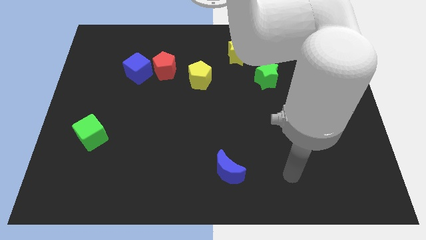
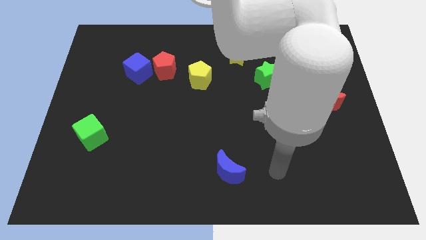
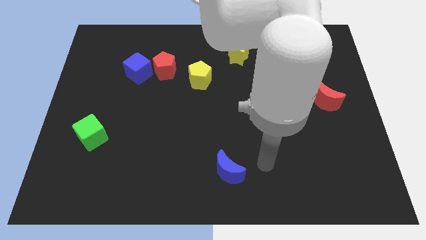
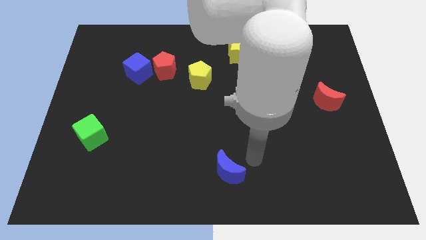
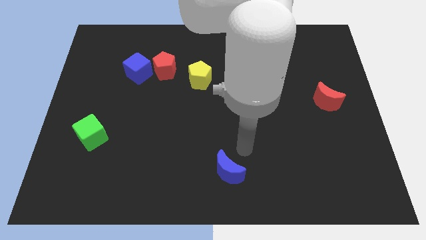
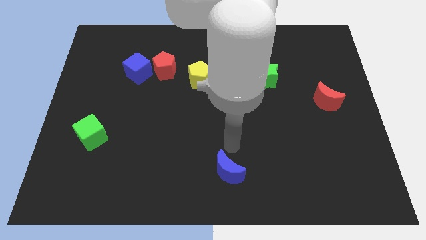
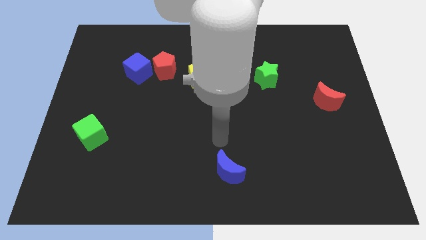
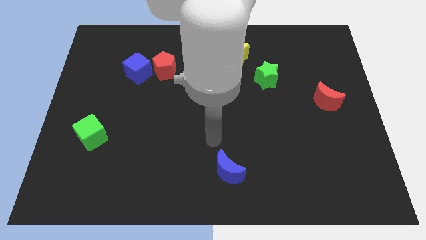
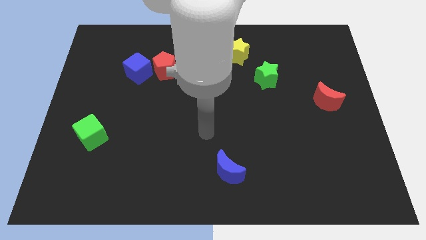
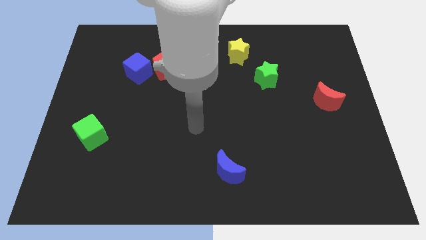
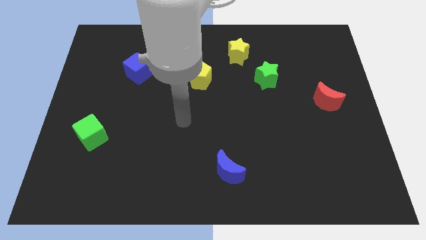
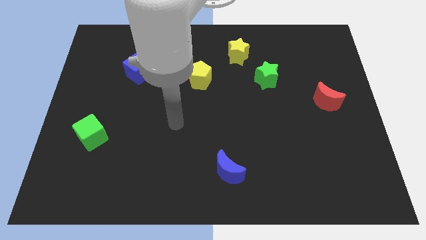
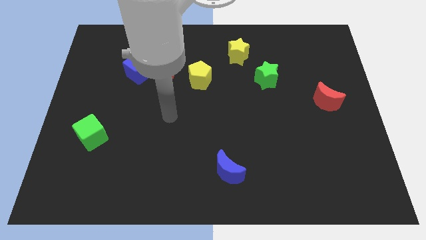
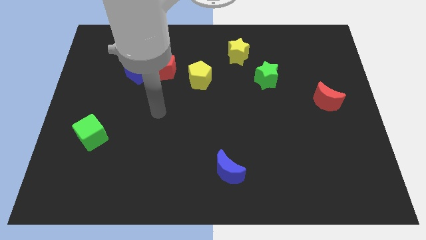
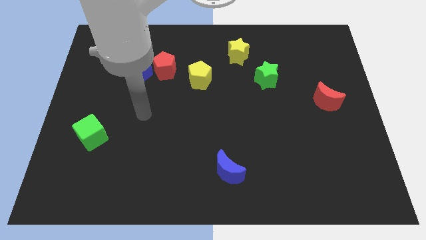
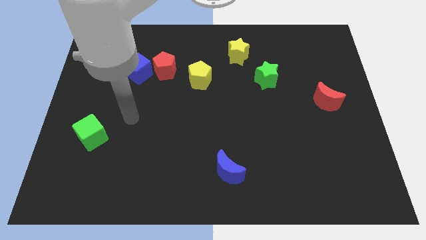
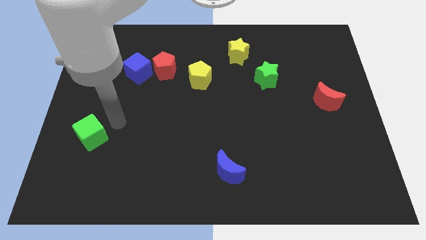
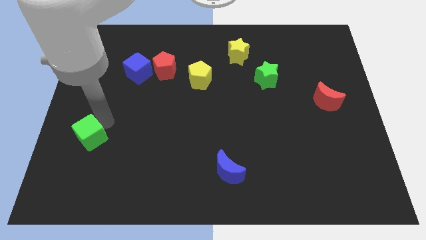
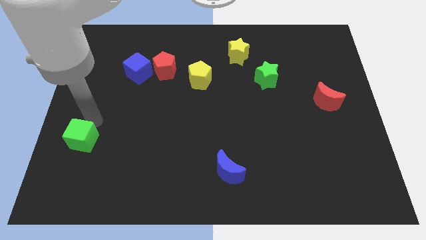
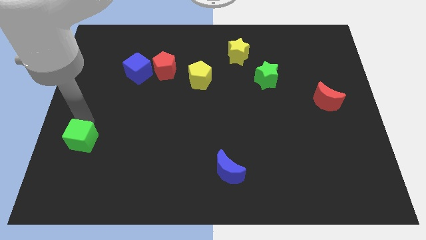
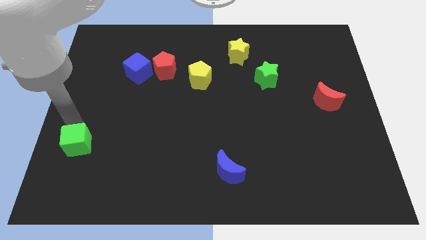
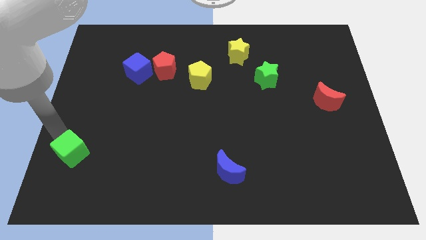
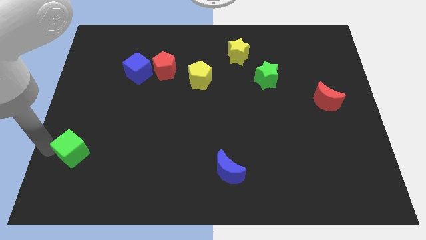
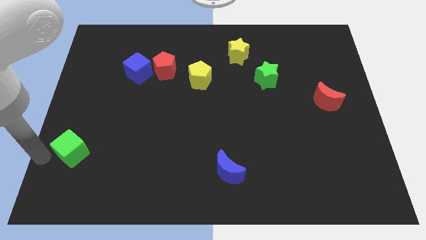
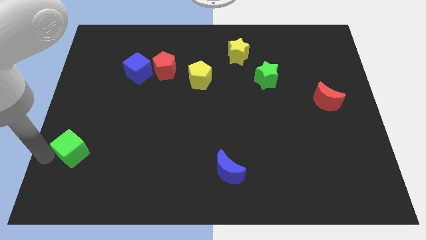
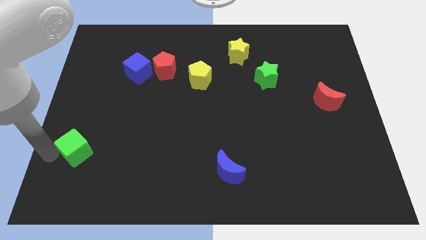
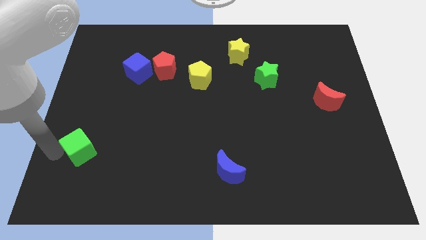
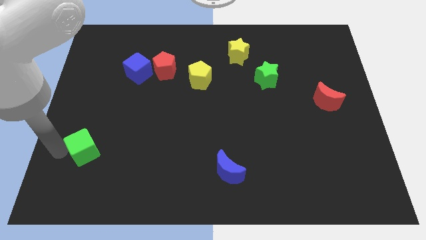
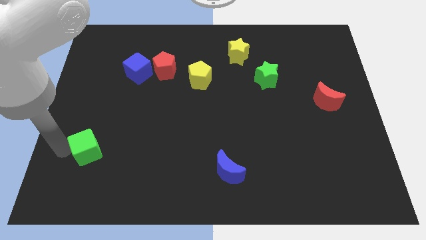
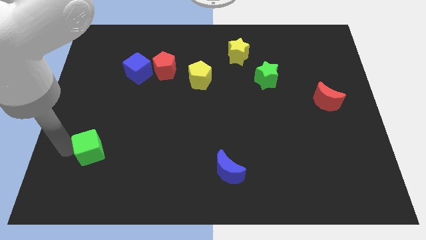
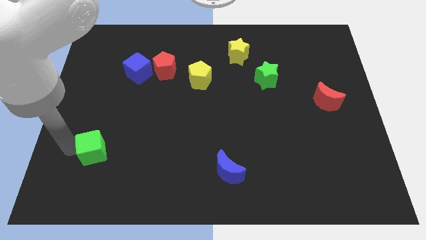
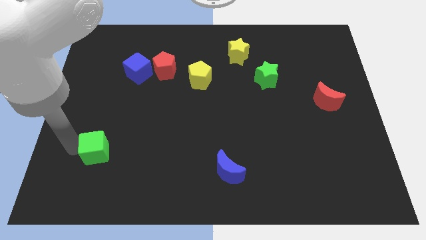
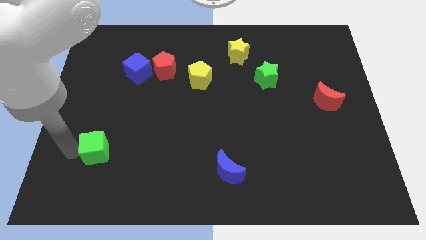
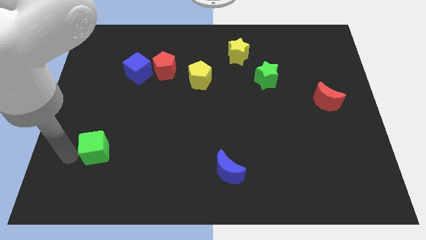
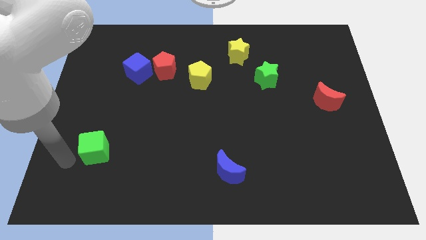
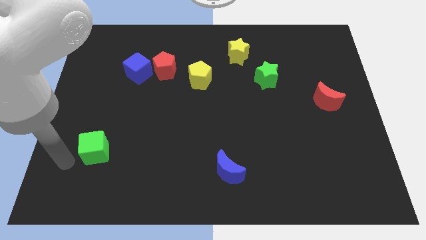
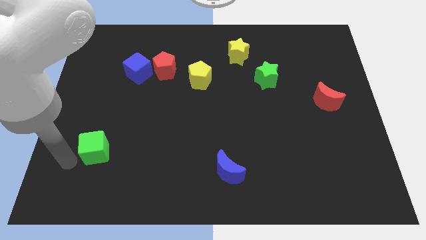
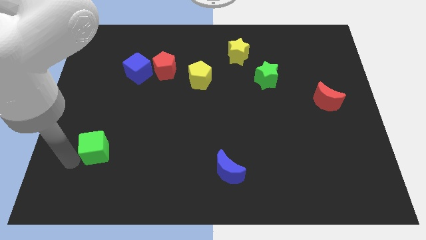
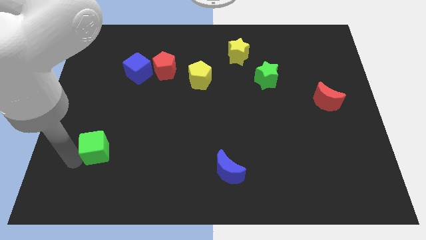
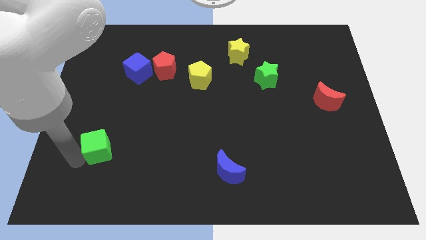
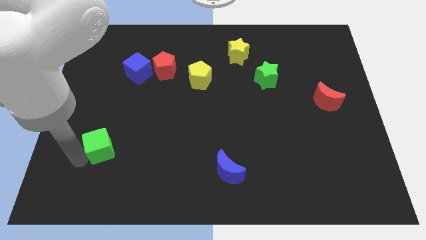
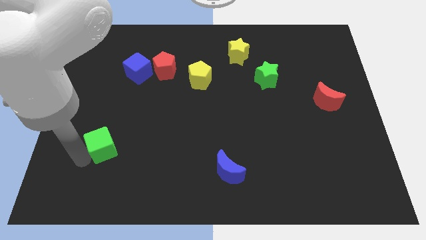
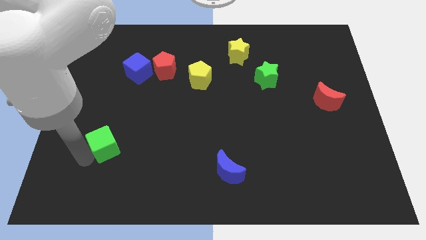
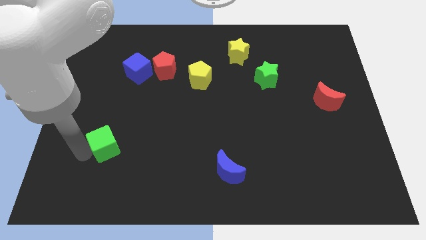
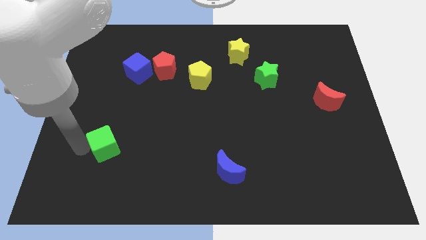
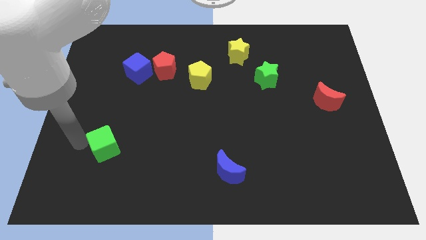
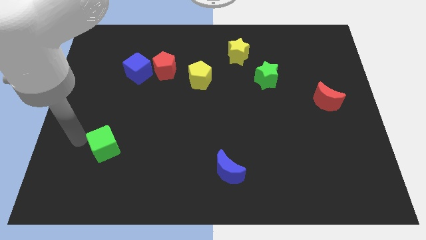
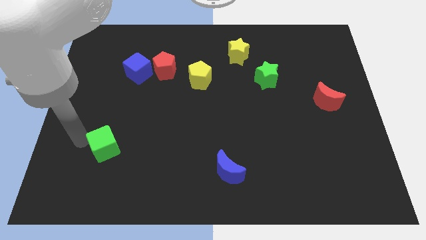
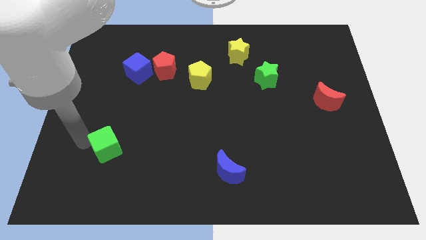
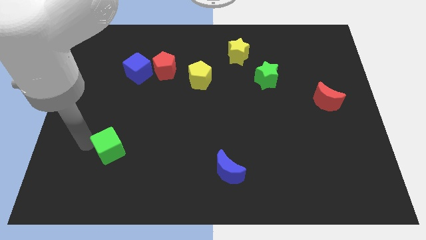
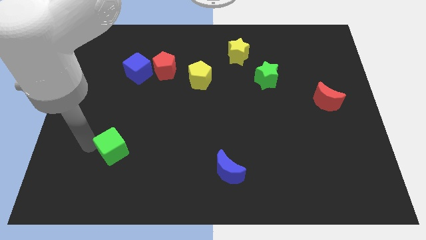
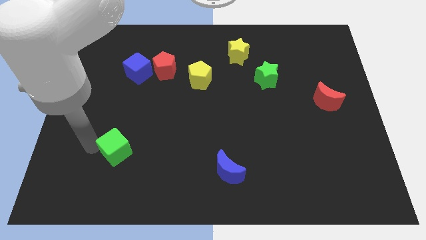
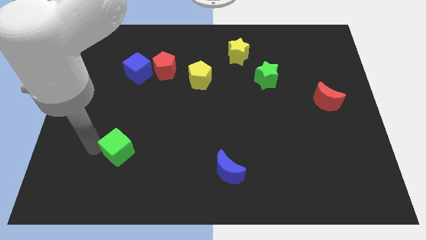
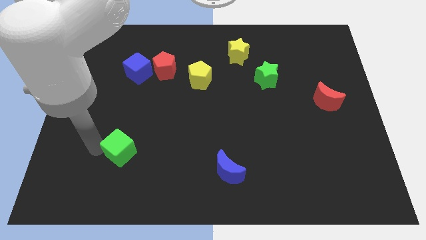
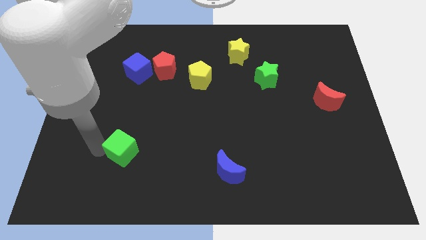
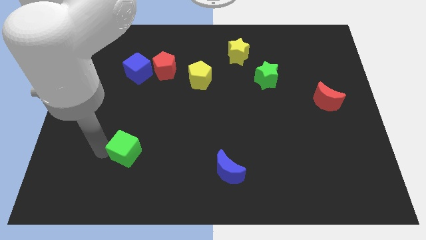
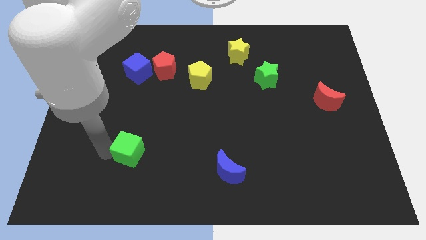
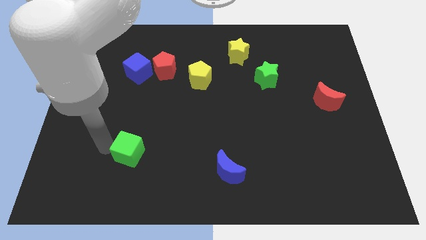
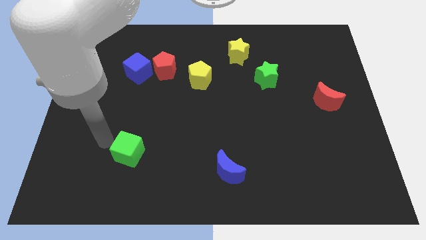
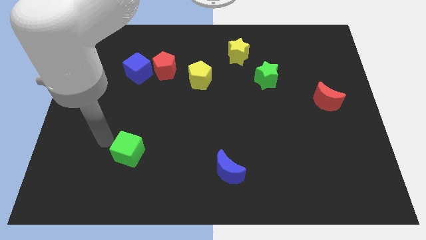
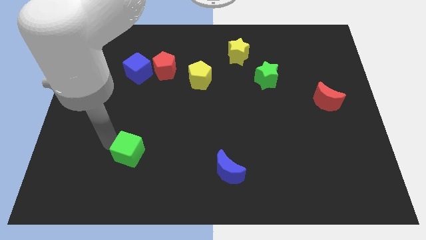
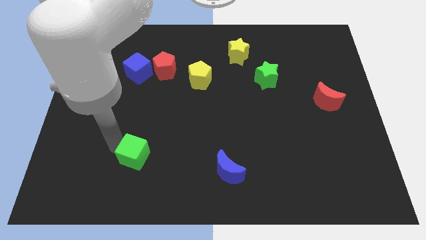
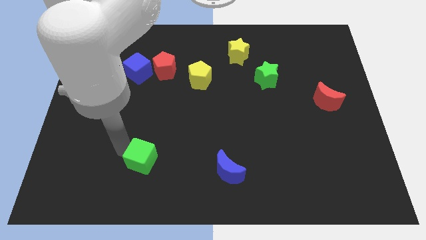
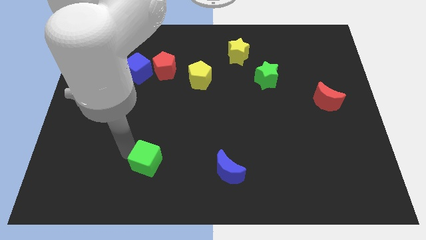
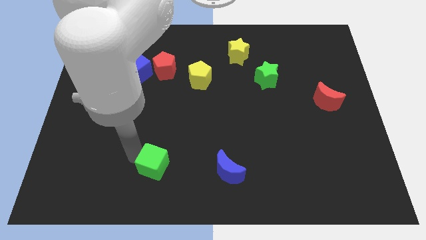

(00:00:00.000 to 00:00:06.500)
push the green cube left of the blue moon
